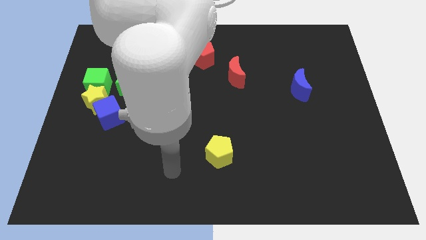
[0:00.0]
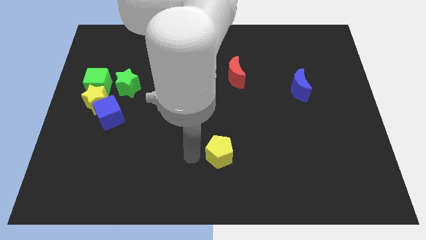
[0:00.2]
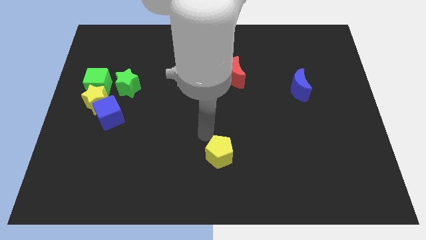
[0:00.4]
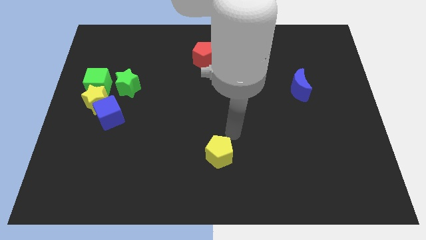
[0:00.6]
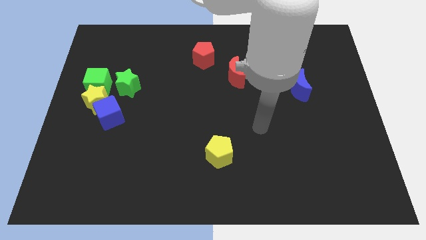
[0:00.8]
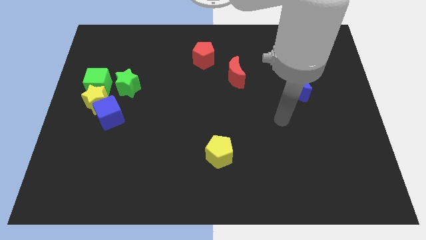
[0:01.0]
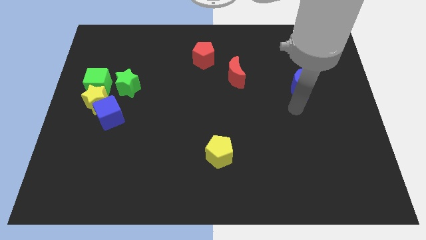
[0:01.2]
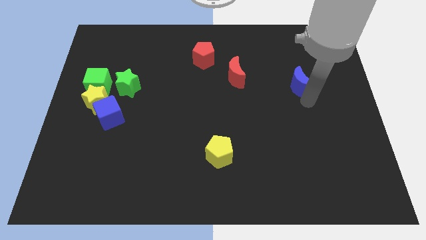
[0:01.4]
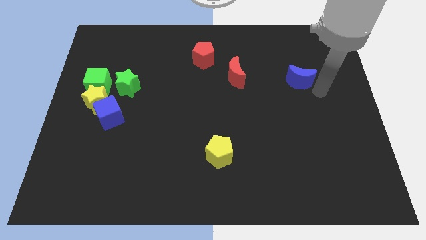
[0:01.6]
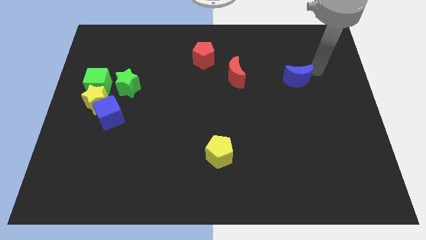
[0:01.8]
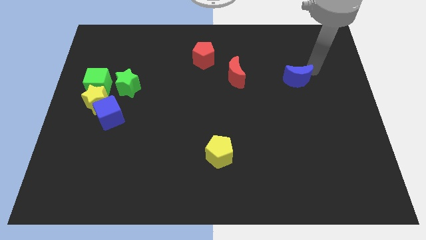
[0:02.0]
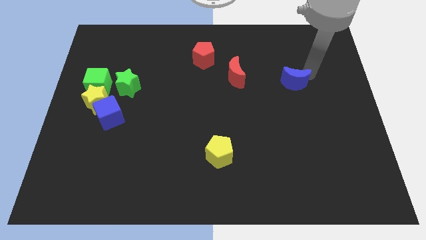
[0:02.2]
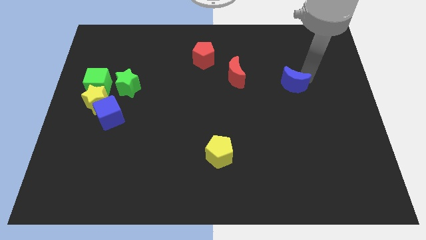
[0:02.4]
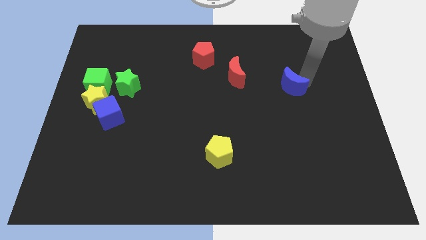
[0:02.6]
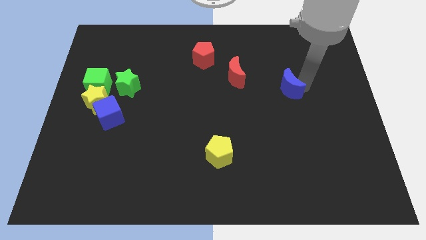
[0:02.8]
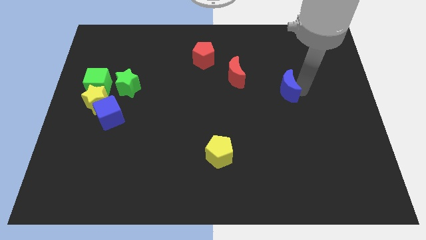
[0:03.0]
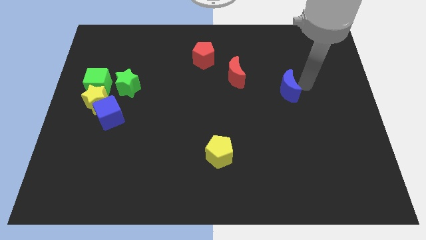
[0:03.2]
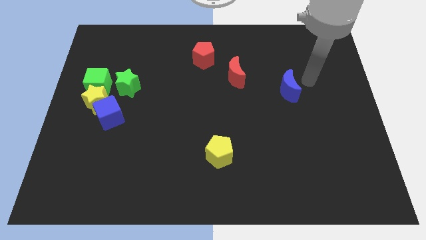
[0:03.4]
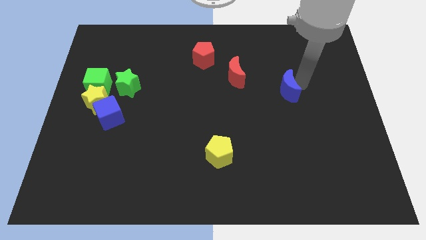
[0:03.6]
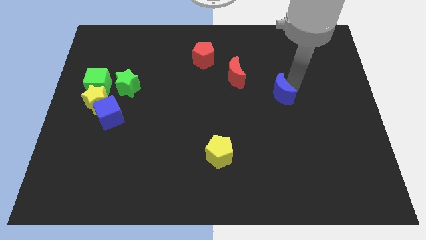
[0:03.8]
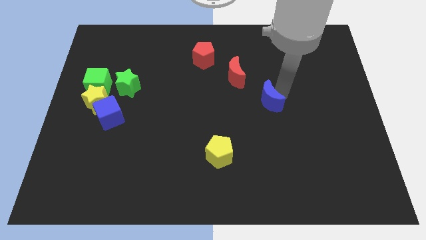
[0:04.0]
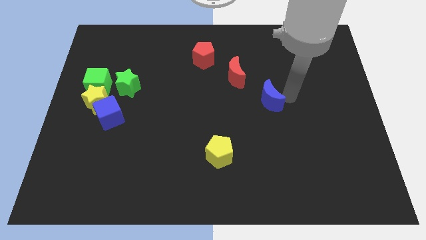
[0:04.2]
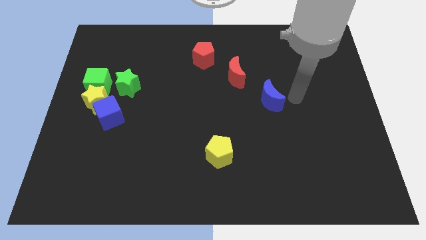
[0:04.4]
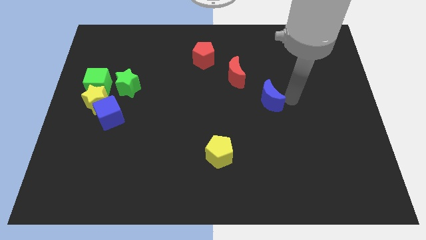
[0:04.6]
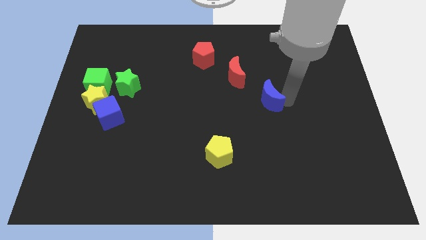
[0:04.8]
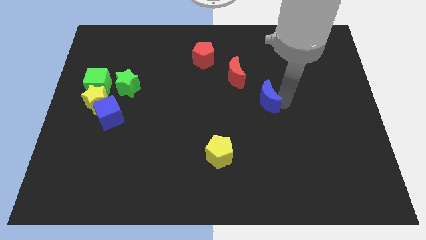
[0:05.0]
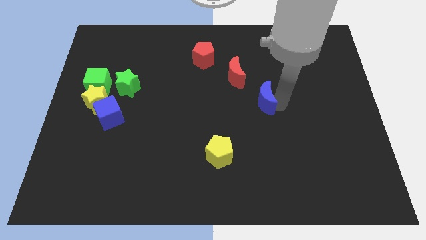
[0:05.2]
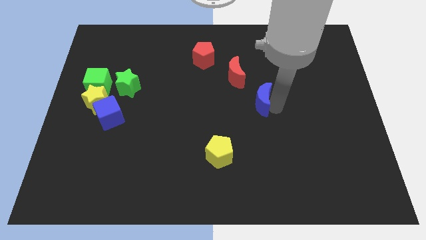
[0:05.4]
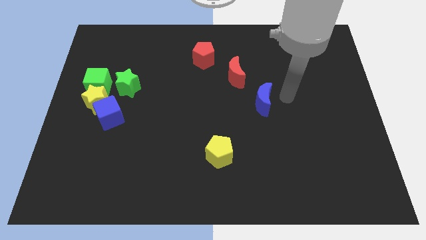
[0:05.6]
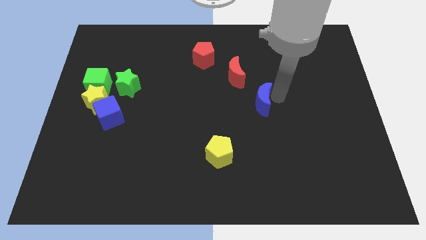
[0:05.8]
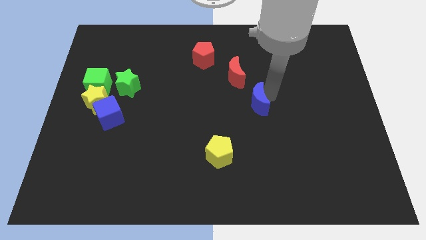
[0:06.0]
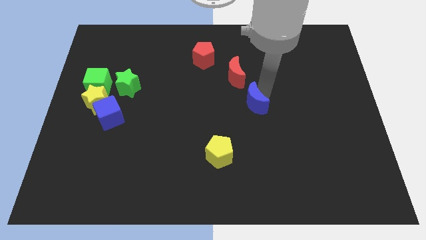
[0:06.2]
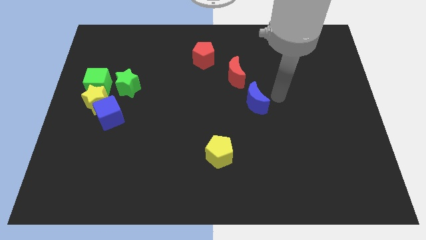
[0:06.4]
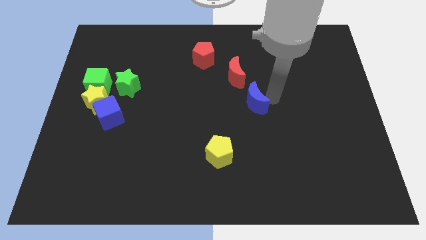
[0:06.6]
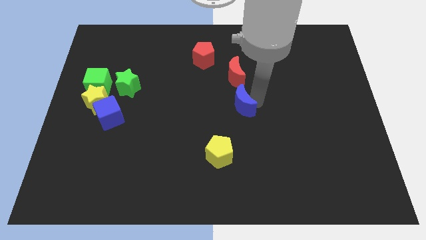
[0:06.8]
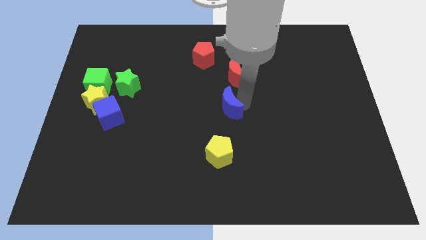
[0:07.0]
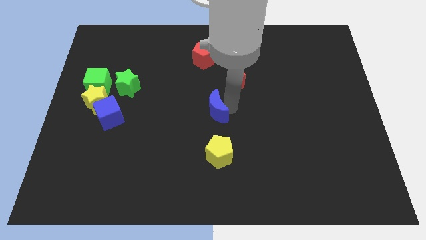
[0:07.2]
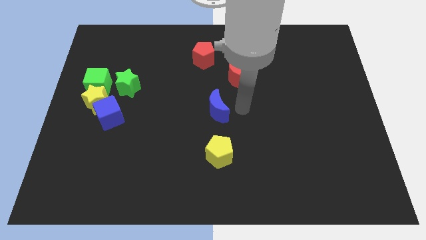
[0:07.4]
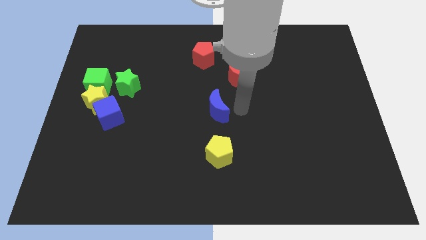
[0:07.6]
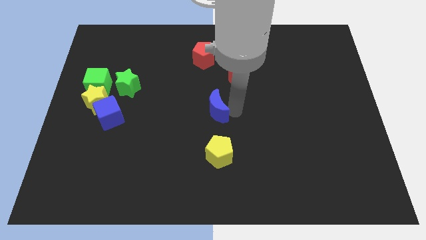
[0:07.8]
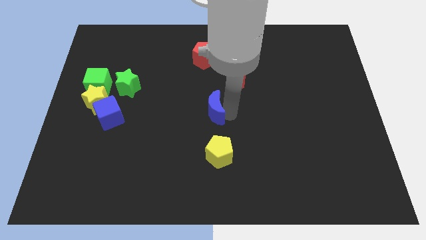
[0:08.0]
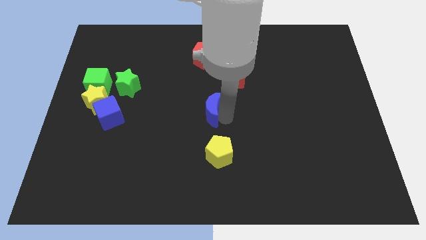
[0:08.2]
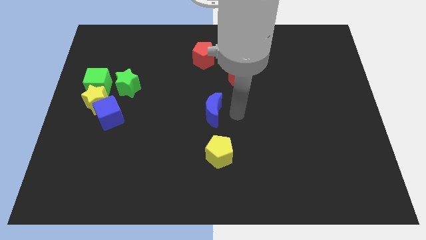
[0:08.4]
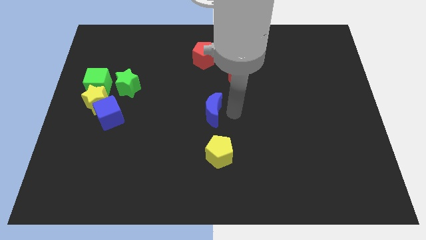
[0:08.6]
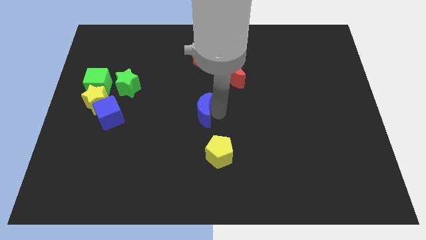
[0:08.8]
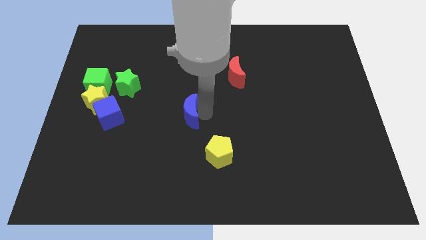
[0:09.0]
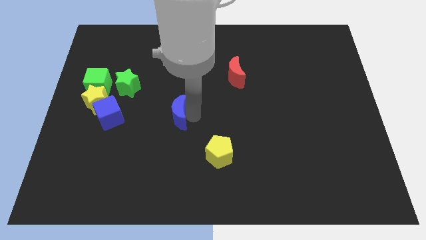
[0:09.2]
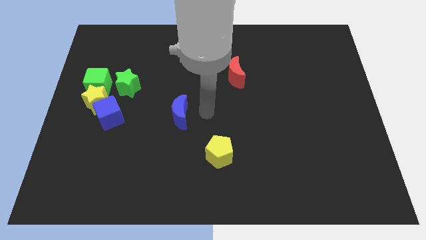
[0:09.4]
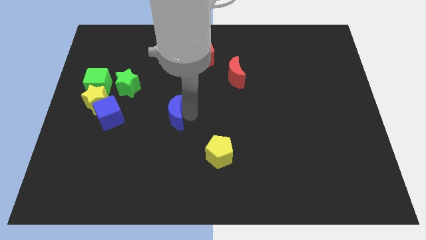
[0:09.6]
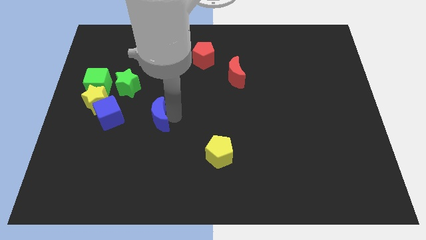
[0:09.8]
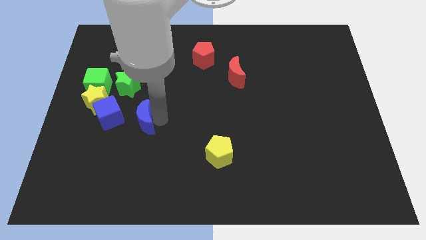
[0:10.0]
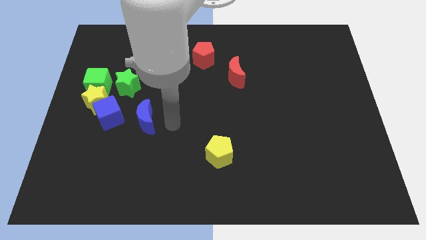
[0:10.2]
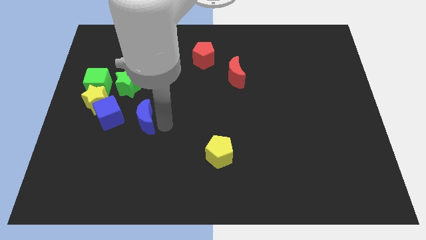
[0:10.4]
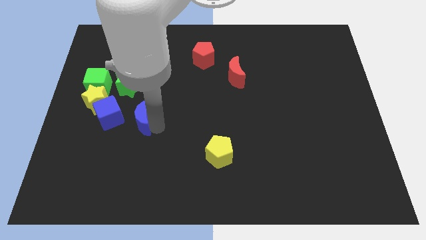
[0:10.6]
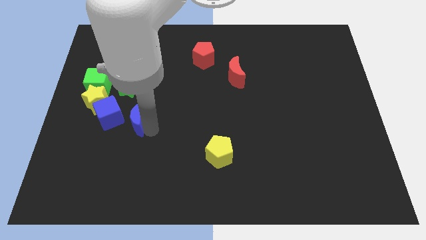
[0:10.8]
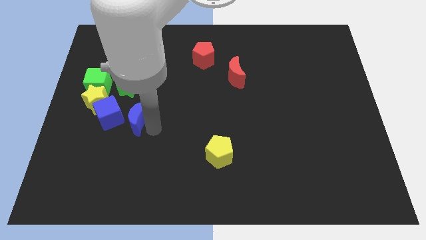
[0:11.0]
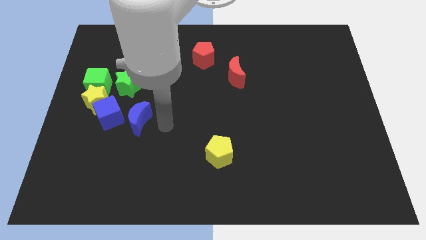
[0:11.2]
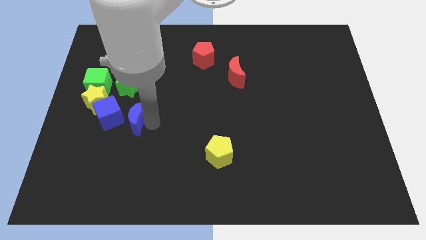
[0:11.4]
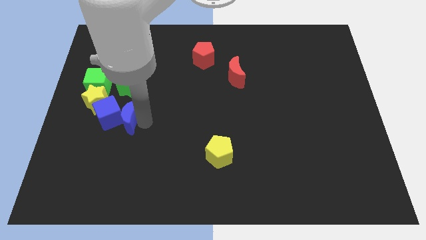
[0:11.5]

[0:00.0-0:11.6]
move the blue moon next to the blue cube

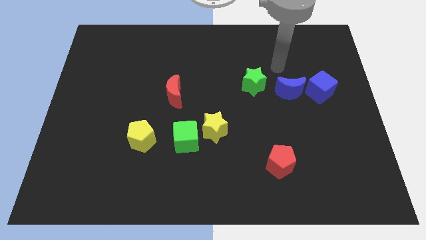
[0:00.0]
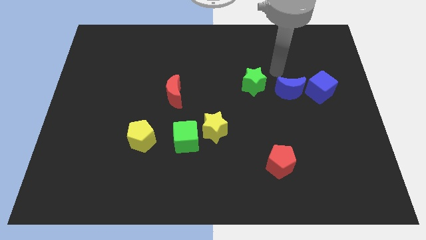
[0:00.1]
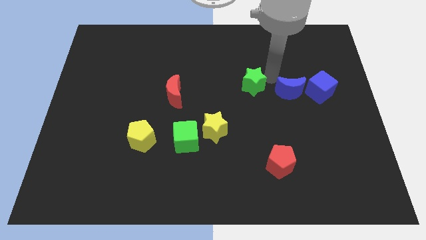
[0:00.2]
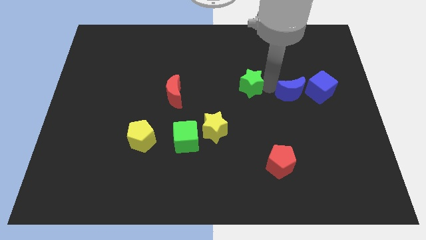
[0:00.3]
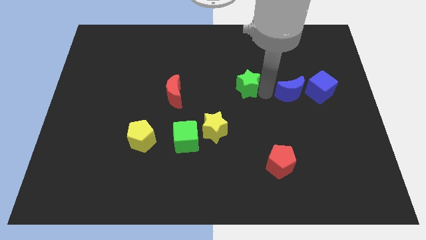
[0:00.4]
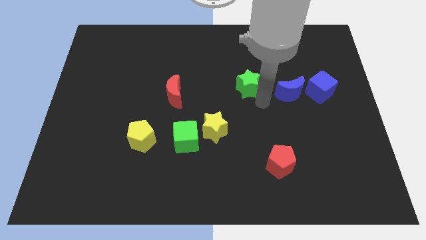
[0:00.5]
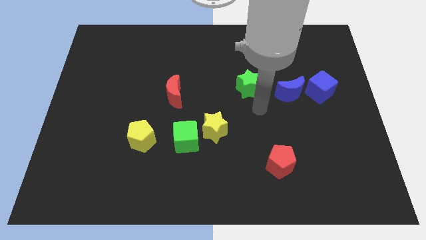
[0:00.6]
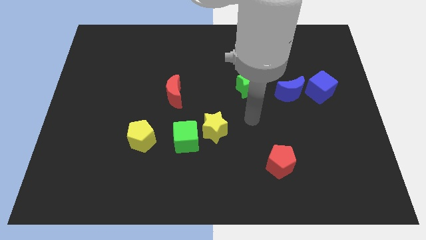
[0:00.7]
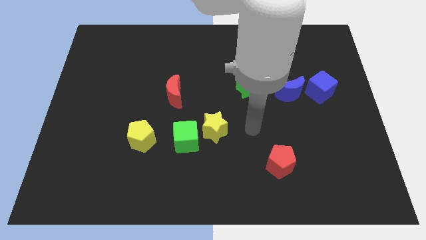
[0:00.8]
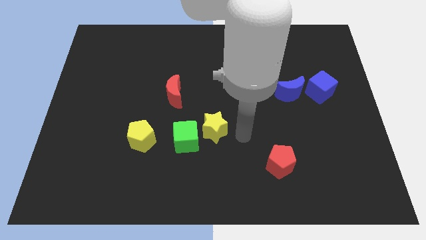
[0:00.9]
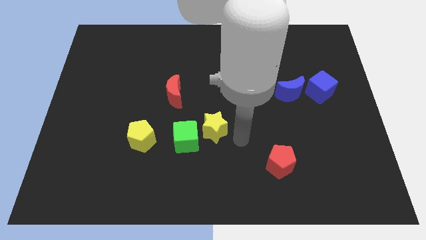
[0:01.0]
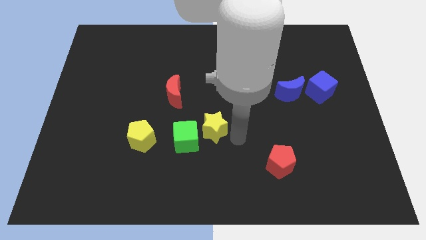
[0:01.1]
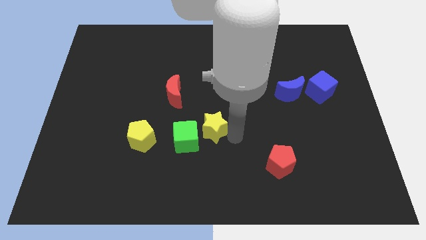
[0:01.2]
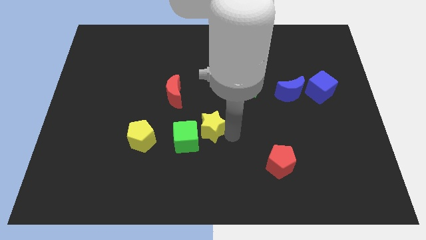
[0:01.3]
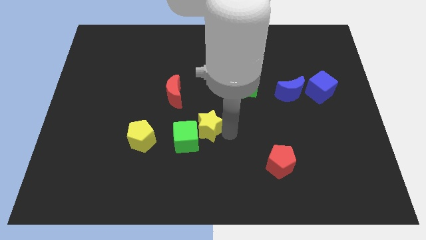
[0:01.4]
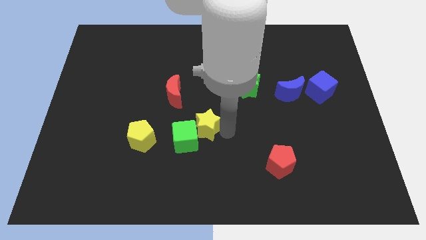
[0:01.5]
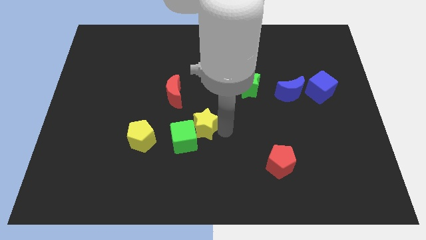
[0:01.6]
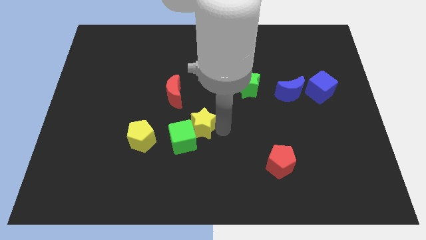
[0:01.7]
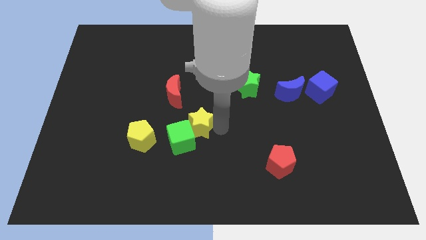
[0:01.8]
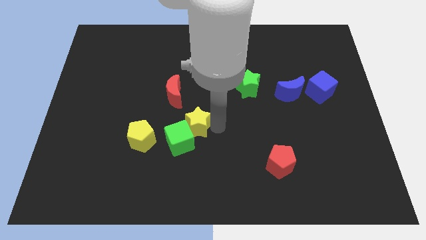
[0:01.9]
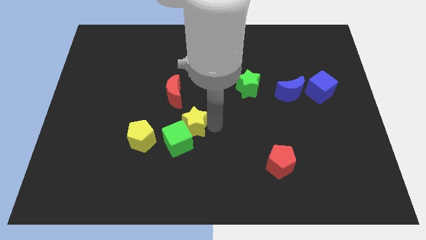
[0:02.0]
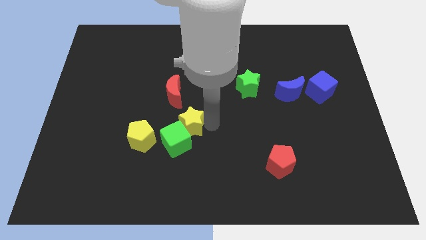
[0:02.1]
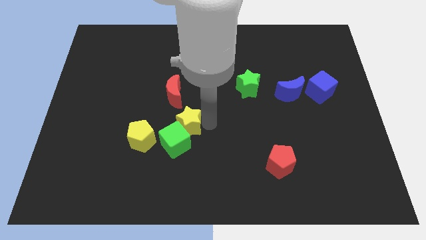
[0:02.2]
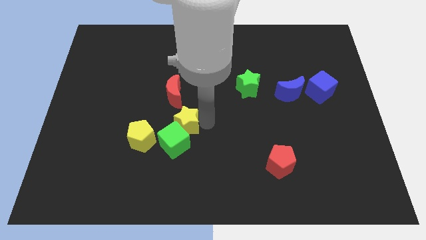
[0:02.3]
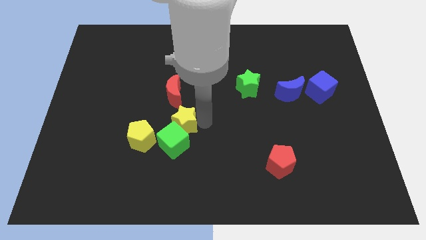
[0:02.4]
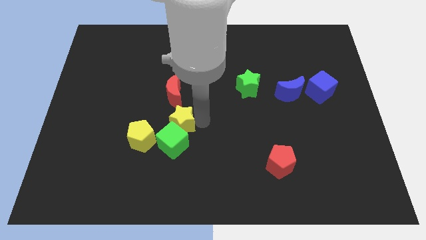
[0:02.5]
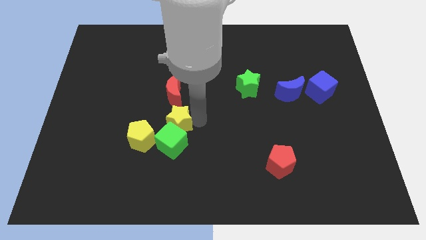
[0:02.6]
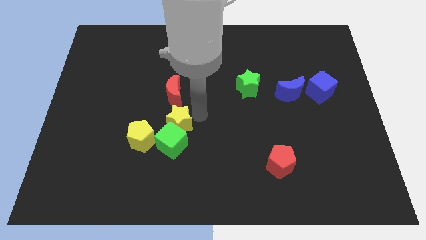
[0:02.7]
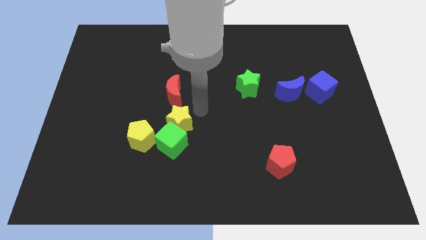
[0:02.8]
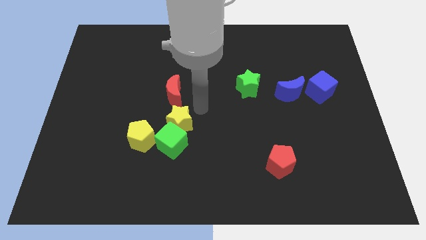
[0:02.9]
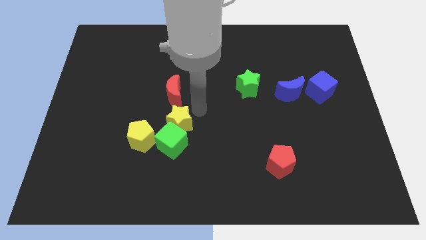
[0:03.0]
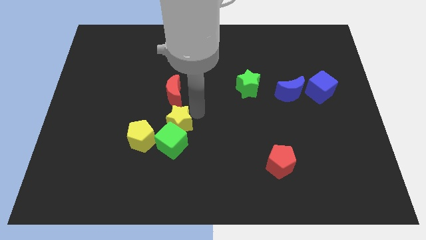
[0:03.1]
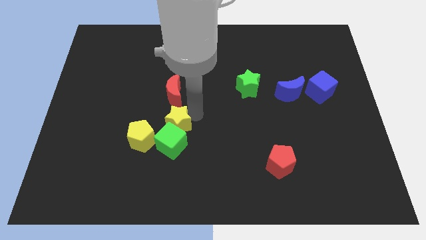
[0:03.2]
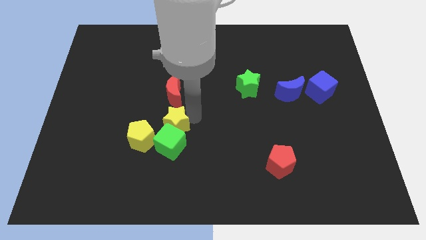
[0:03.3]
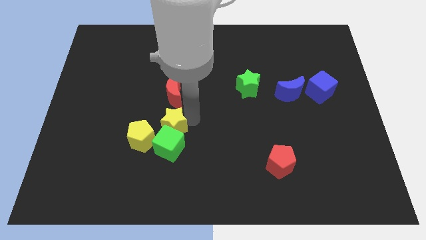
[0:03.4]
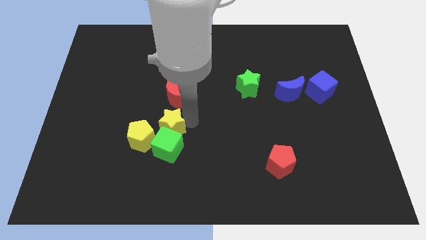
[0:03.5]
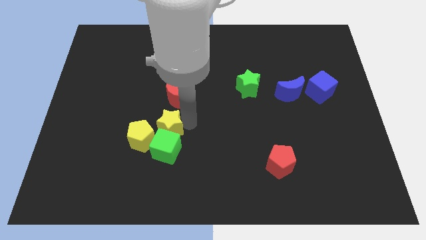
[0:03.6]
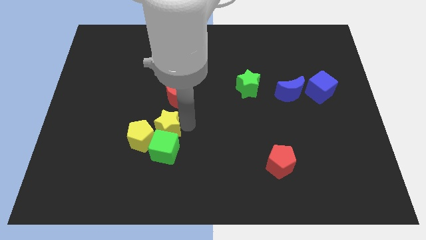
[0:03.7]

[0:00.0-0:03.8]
slide the yellow star to the yellow pentagon
